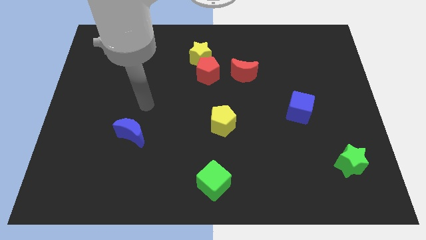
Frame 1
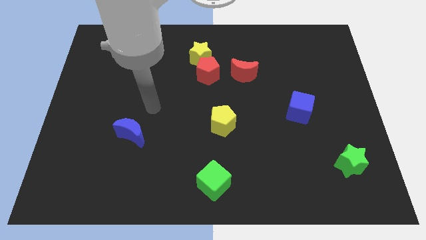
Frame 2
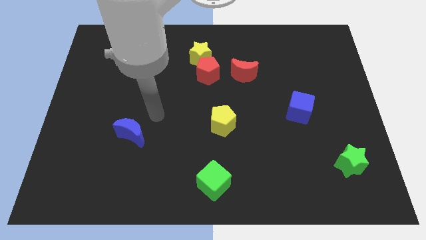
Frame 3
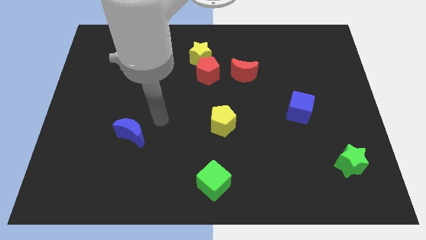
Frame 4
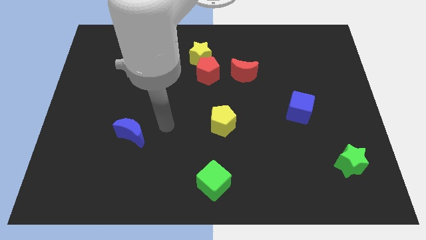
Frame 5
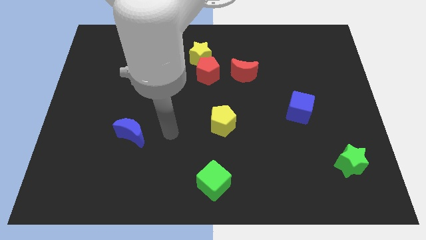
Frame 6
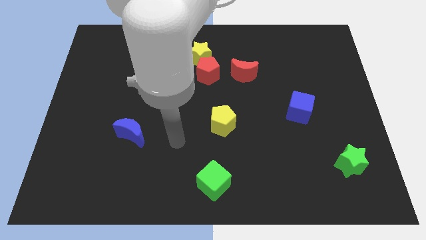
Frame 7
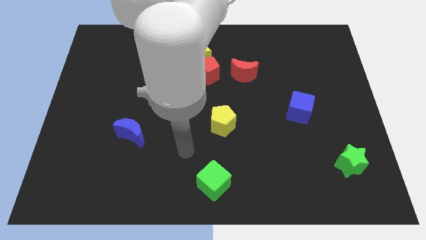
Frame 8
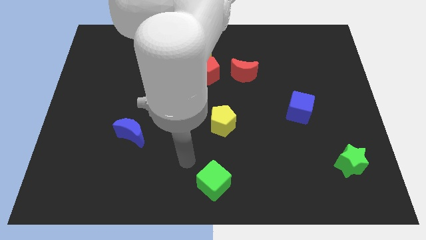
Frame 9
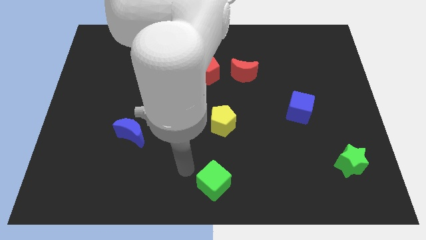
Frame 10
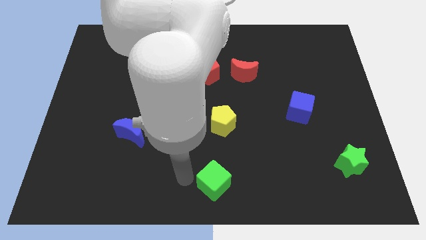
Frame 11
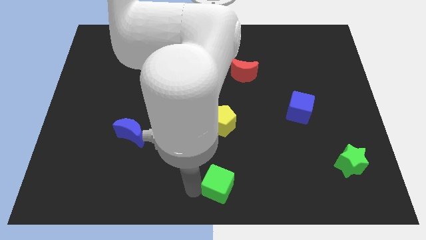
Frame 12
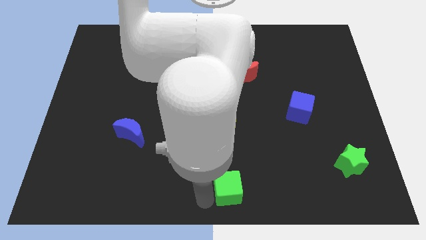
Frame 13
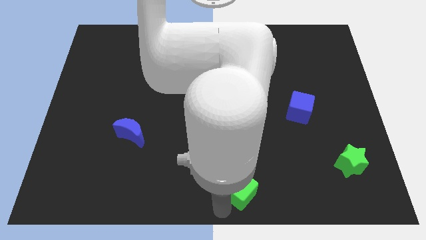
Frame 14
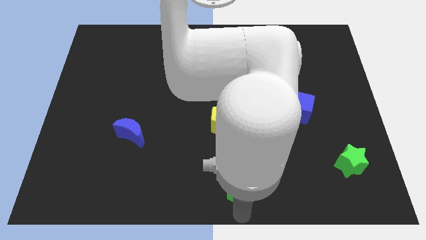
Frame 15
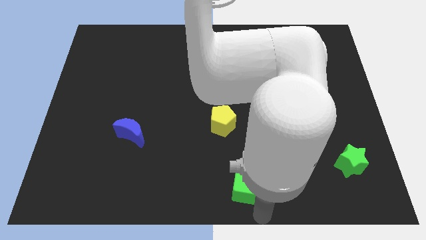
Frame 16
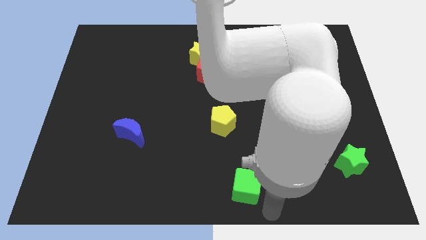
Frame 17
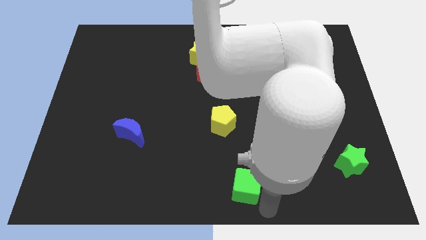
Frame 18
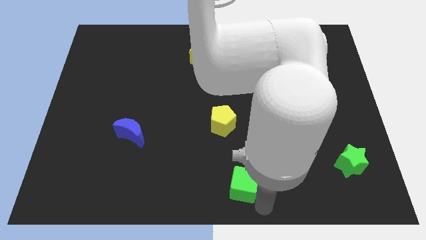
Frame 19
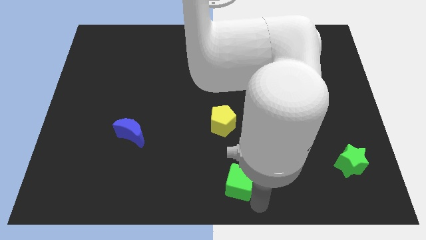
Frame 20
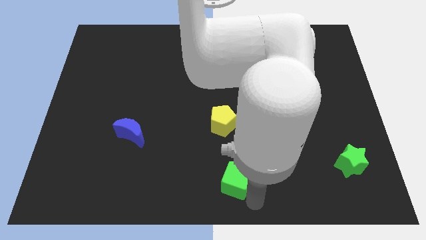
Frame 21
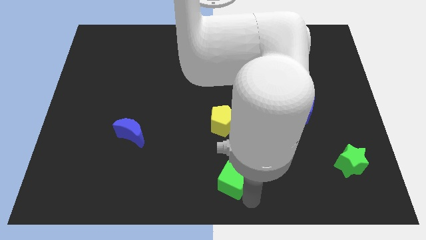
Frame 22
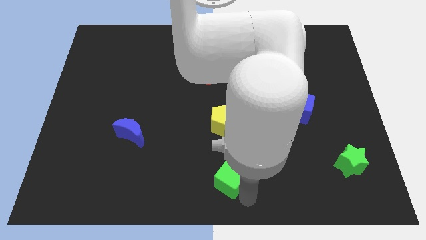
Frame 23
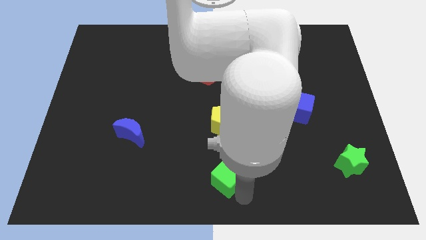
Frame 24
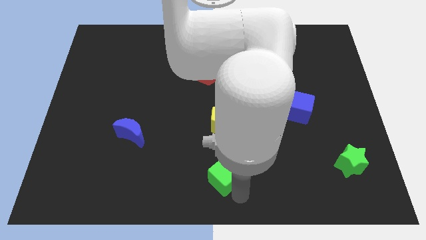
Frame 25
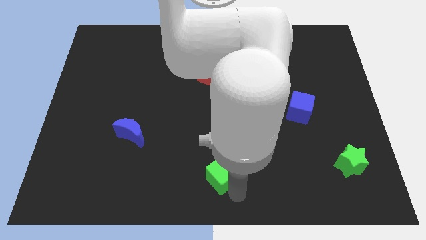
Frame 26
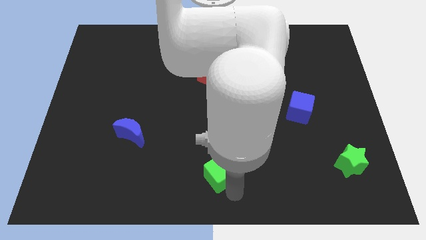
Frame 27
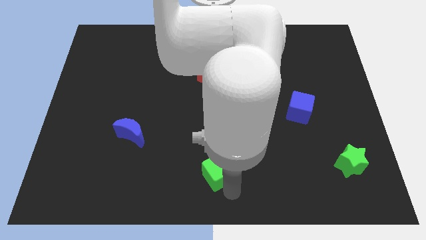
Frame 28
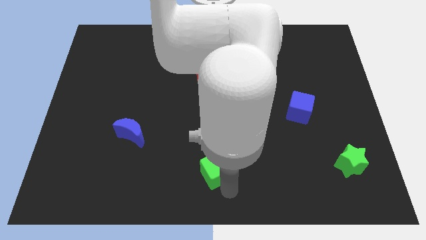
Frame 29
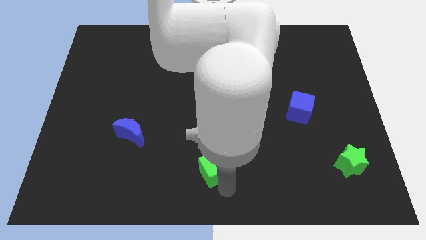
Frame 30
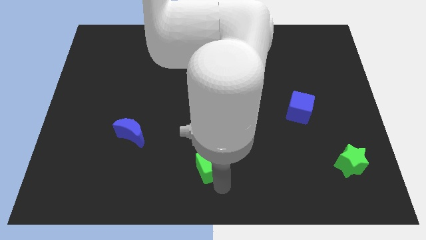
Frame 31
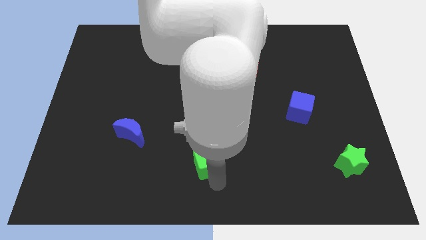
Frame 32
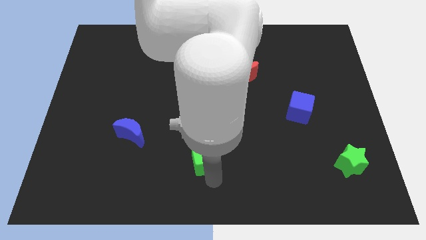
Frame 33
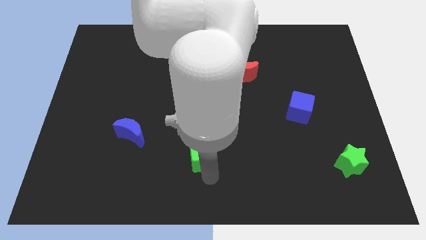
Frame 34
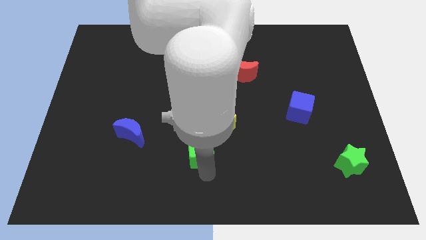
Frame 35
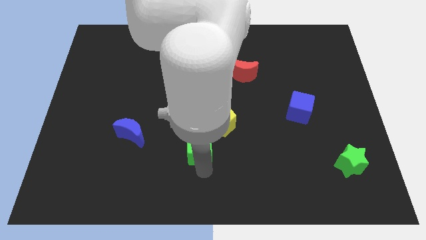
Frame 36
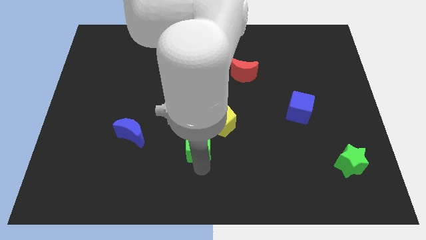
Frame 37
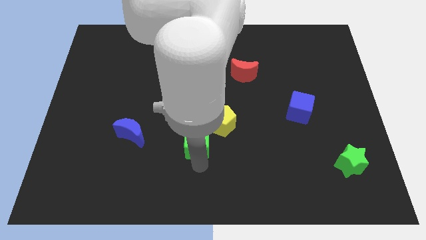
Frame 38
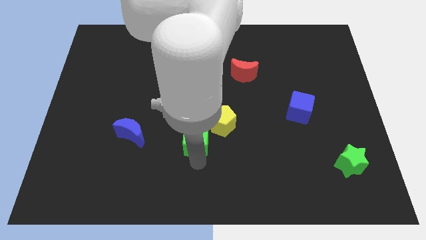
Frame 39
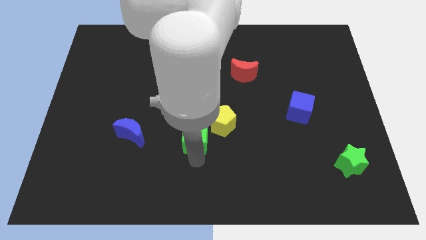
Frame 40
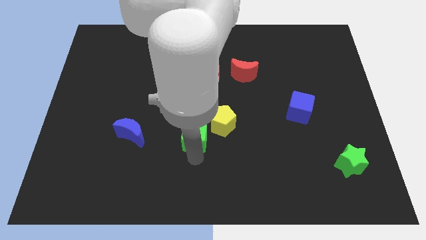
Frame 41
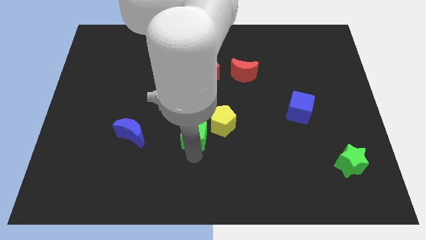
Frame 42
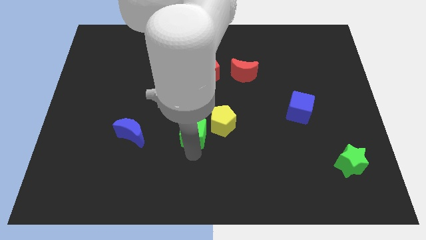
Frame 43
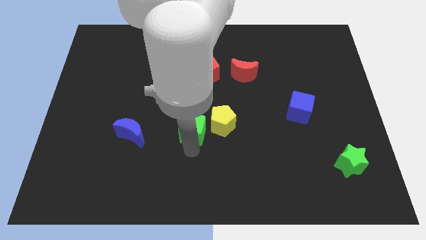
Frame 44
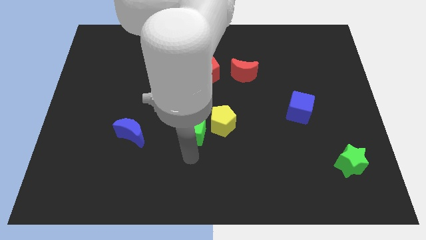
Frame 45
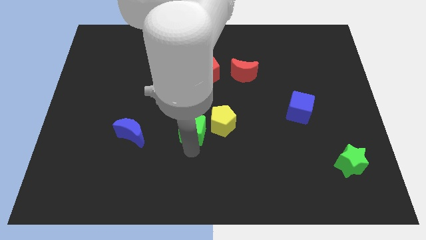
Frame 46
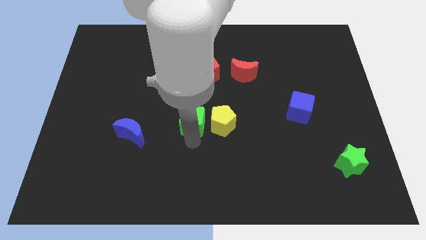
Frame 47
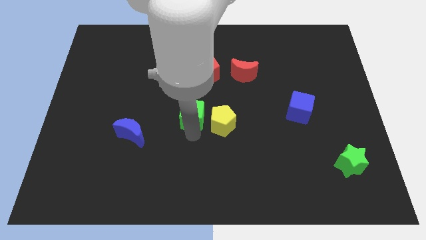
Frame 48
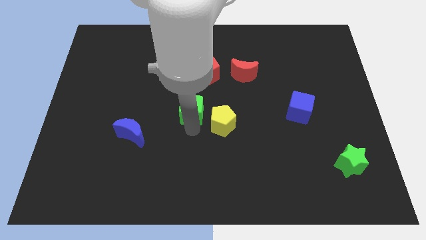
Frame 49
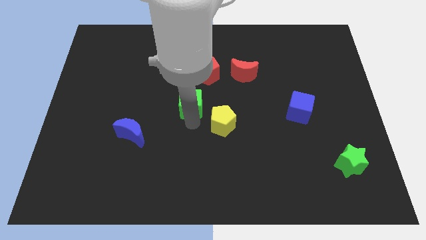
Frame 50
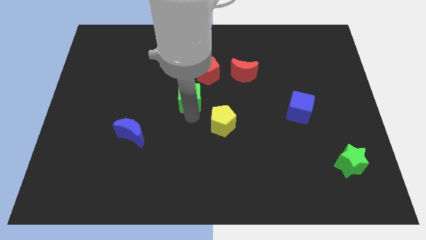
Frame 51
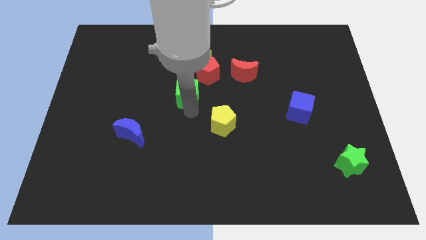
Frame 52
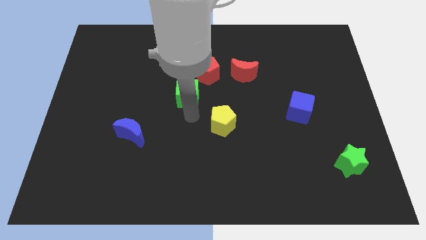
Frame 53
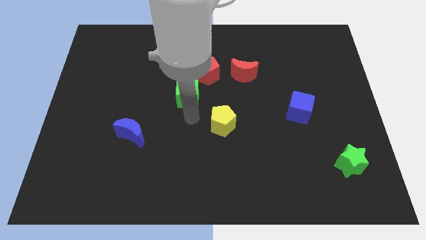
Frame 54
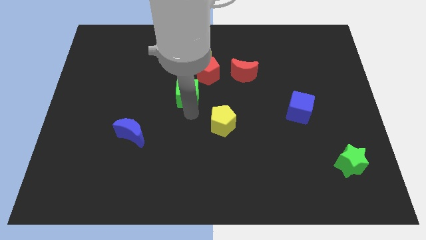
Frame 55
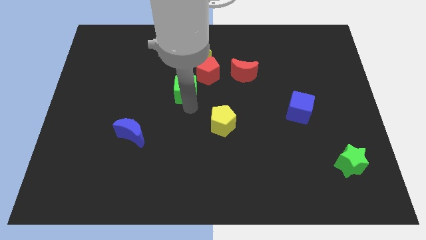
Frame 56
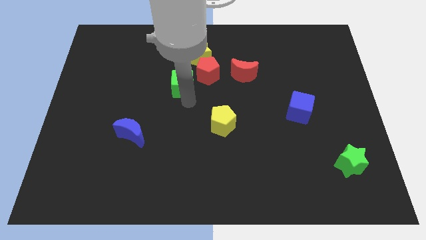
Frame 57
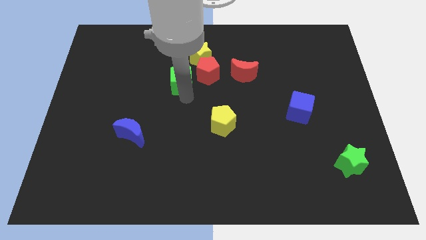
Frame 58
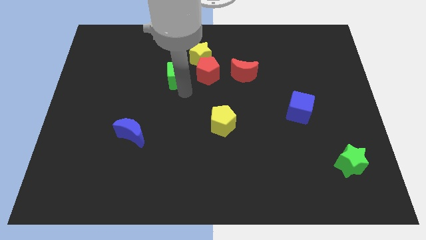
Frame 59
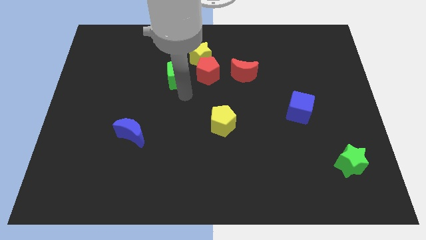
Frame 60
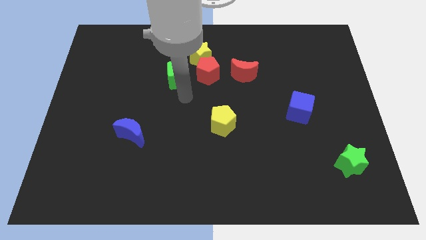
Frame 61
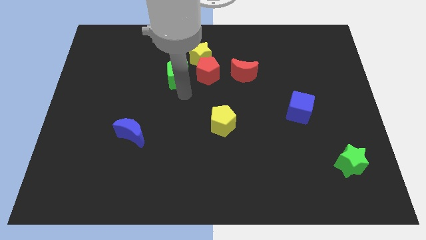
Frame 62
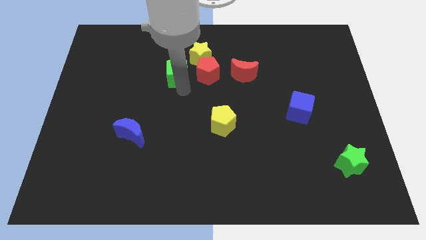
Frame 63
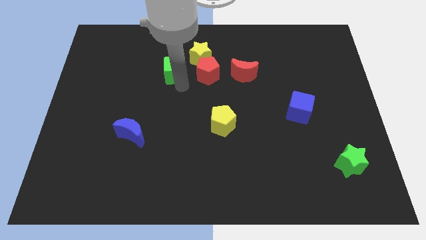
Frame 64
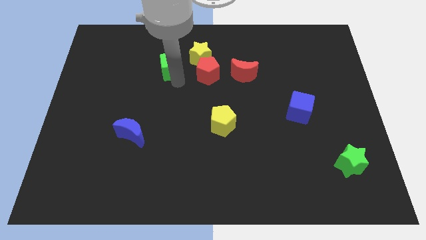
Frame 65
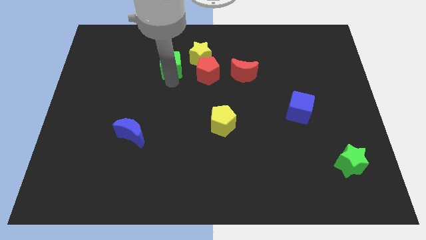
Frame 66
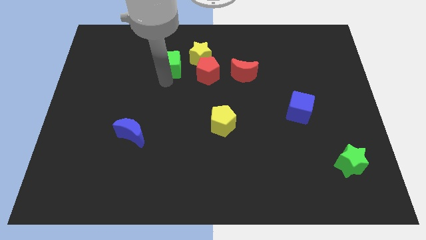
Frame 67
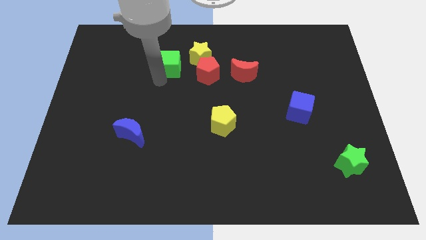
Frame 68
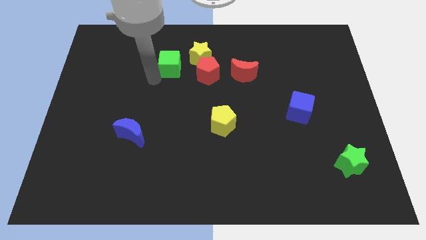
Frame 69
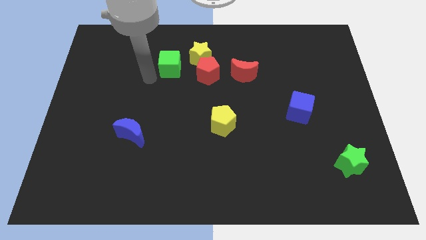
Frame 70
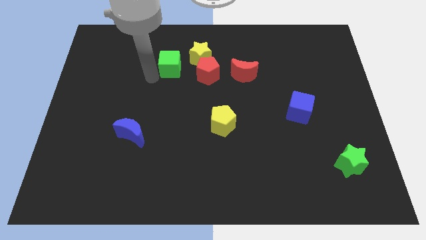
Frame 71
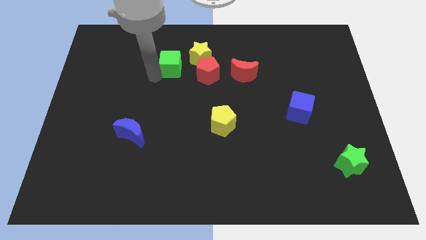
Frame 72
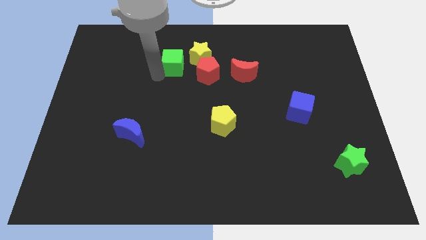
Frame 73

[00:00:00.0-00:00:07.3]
move the green cube to the top left of the red pentagon

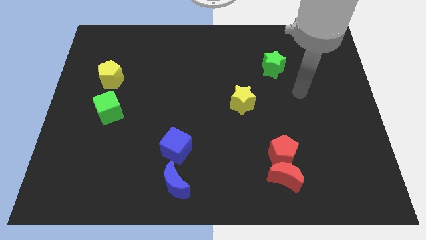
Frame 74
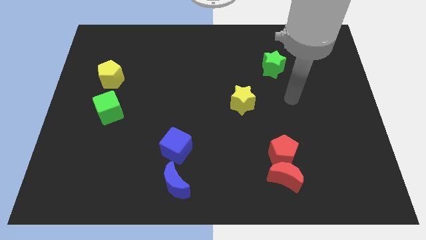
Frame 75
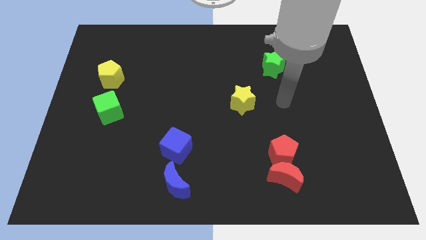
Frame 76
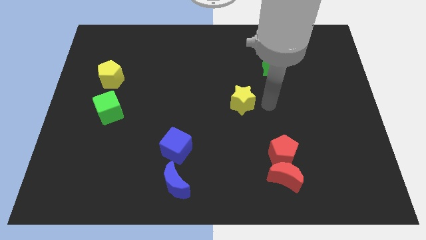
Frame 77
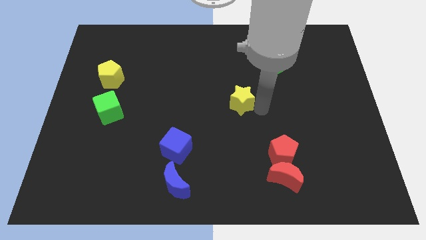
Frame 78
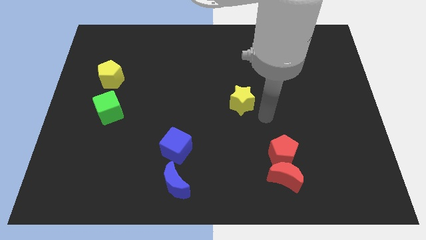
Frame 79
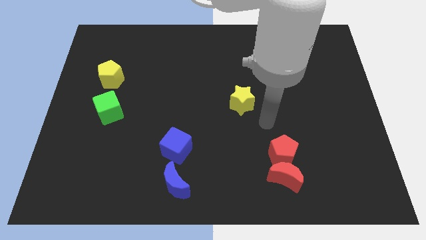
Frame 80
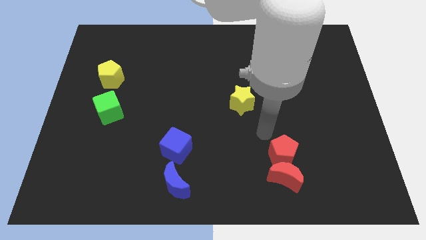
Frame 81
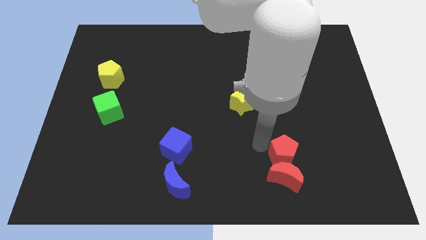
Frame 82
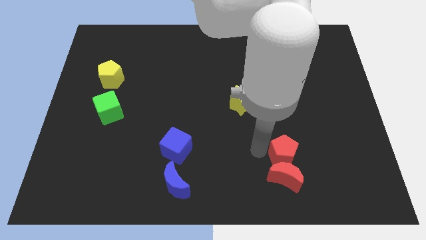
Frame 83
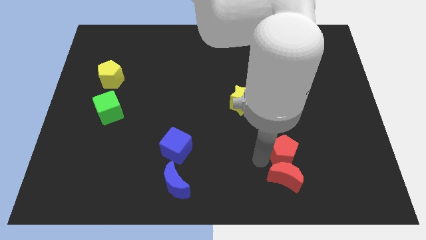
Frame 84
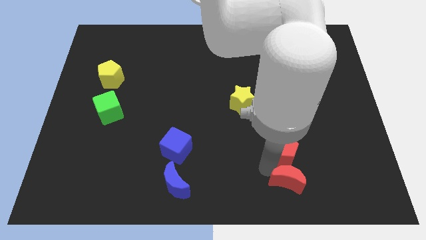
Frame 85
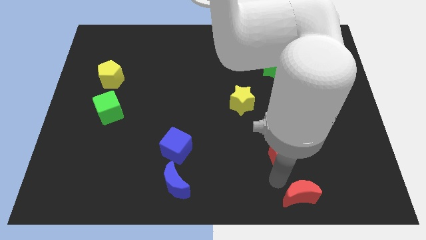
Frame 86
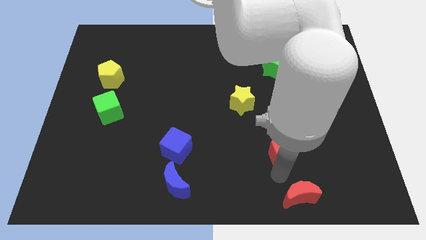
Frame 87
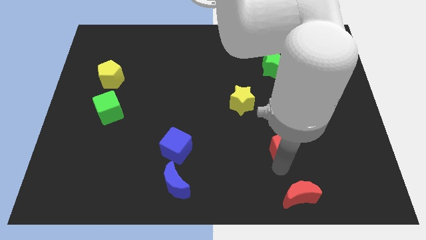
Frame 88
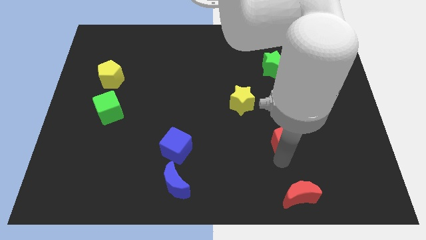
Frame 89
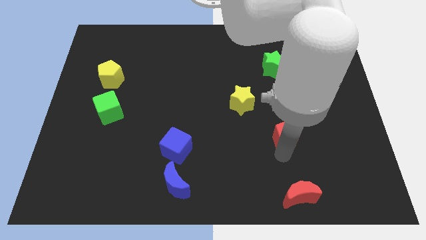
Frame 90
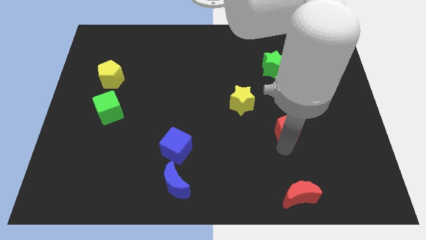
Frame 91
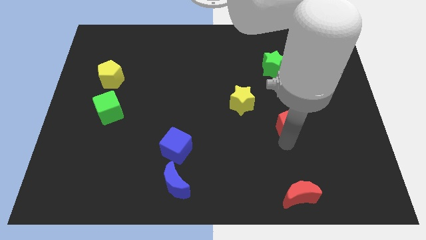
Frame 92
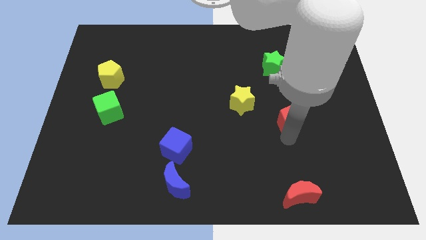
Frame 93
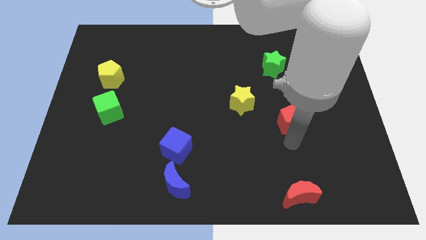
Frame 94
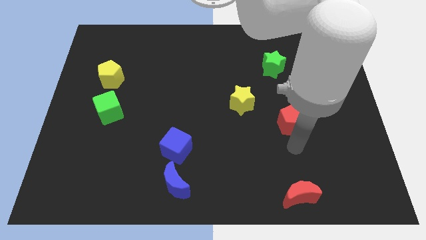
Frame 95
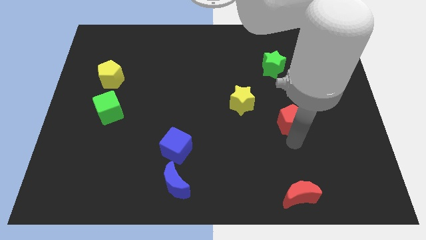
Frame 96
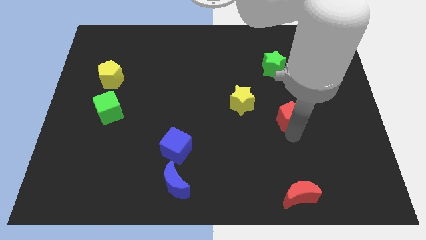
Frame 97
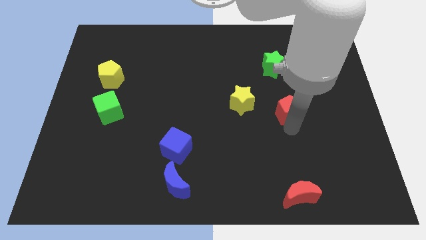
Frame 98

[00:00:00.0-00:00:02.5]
slide the red pentagon to the right of the yellow star
